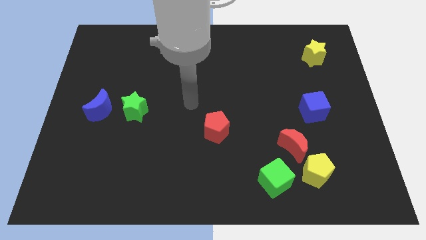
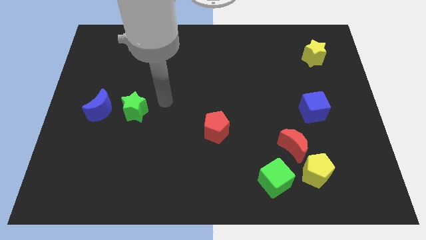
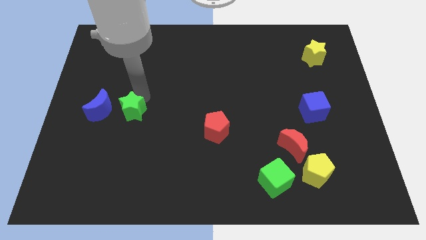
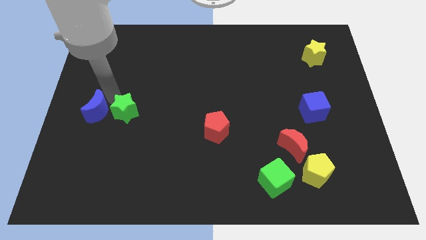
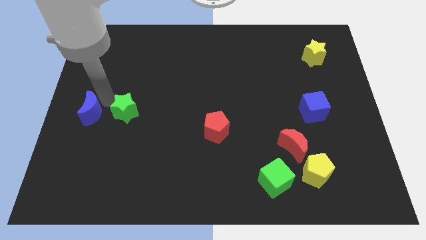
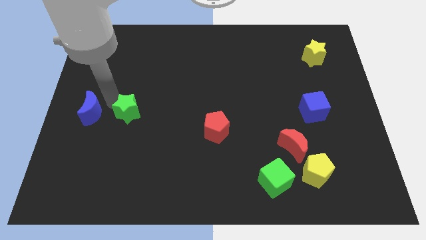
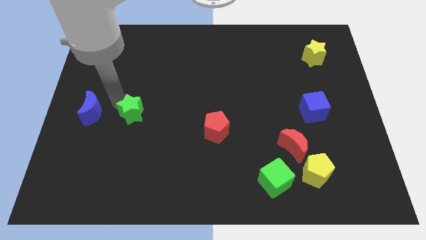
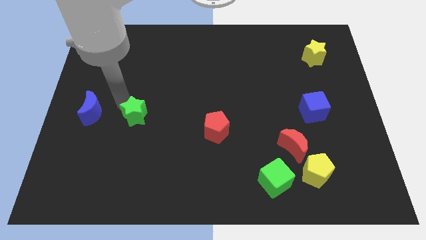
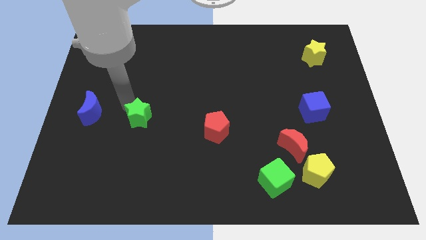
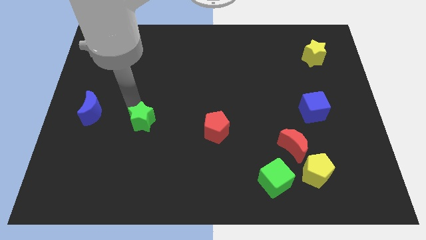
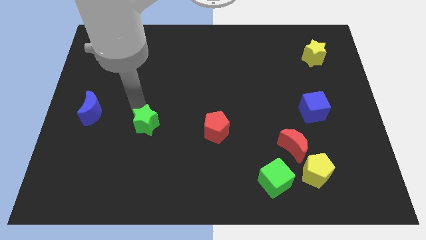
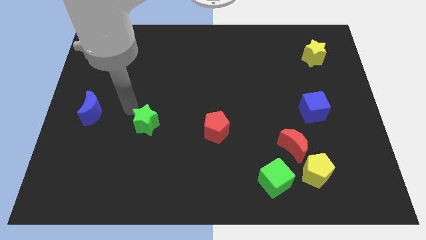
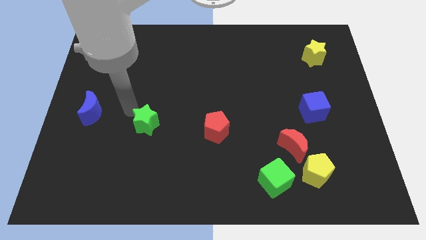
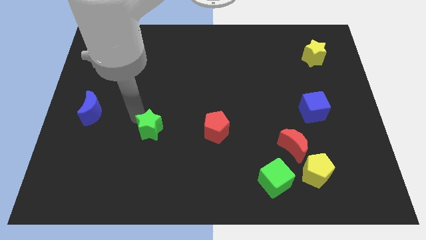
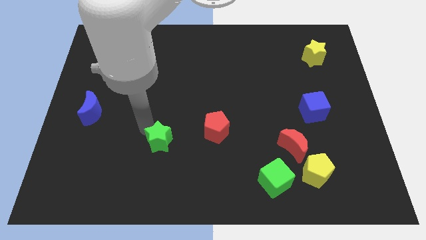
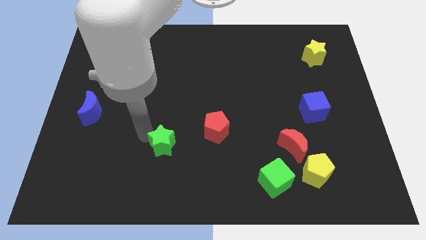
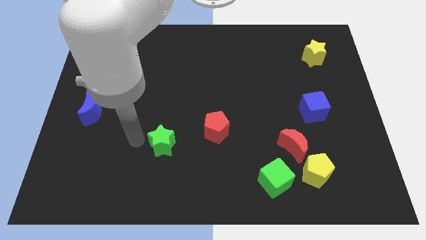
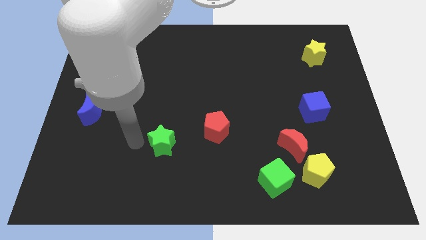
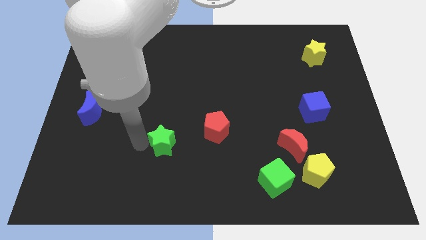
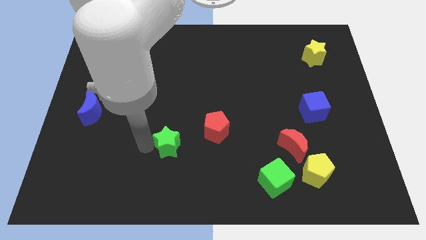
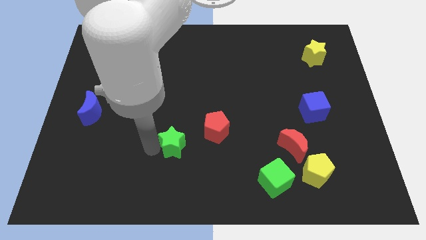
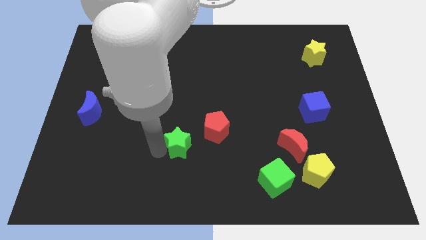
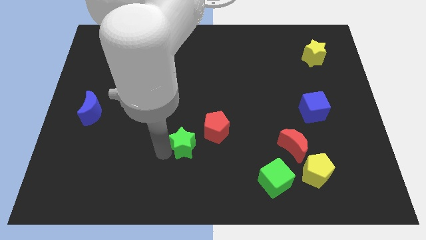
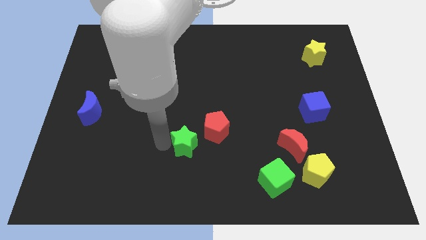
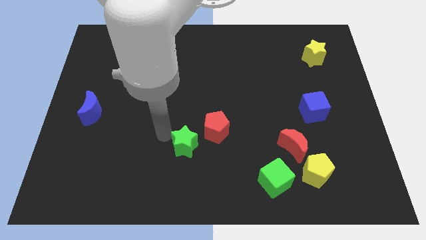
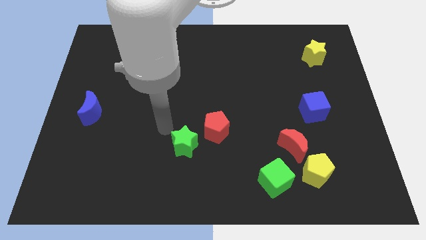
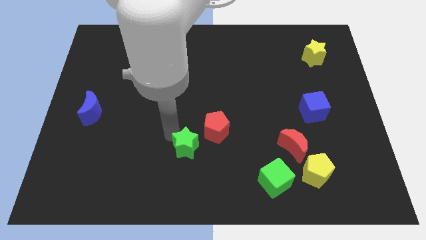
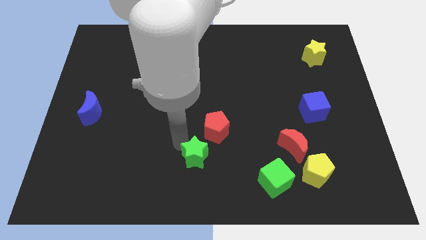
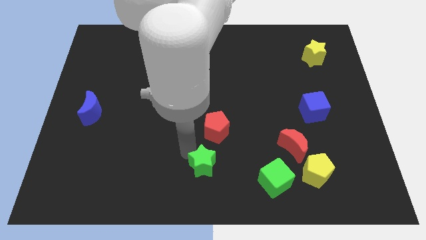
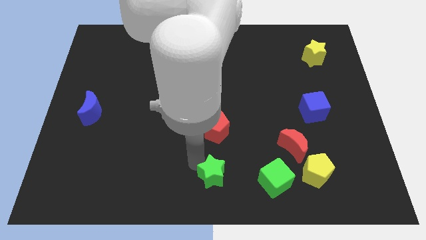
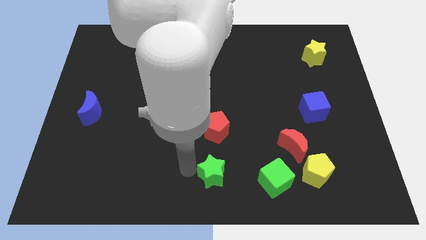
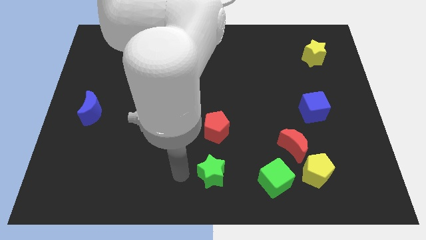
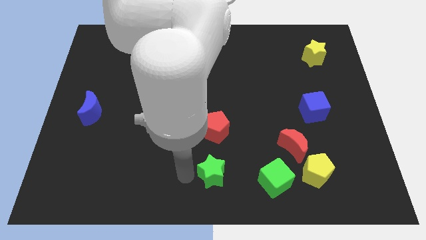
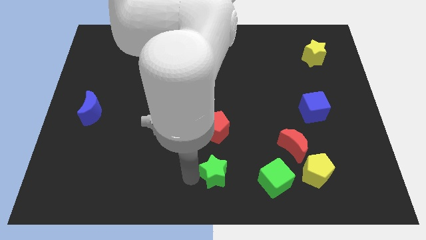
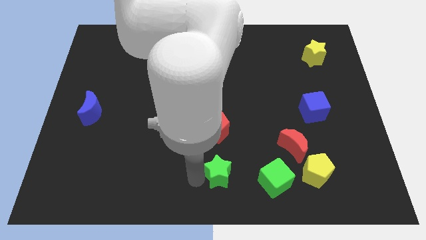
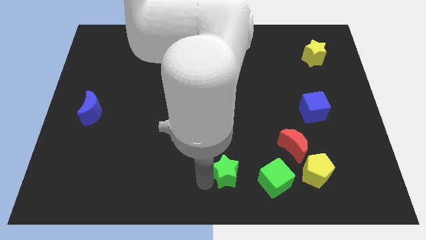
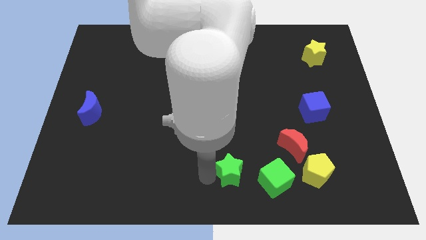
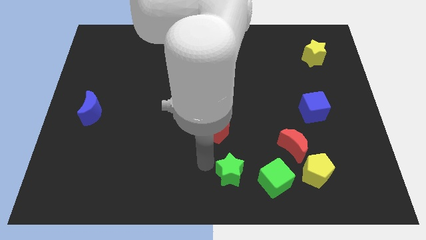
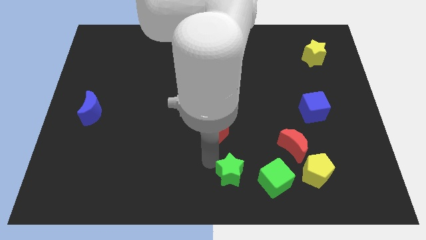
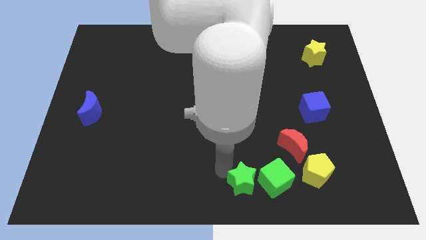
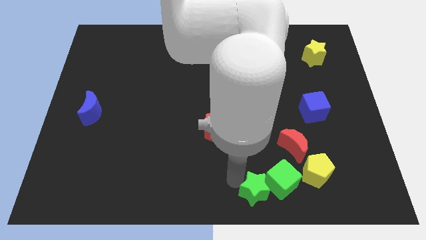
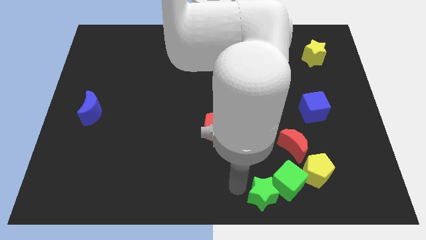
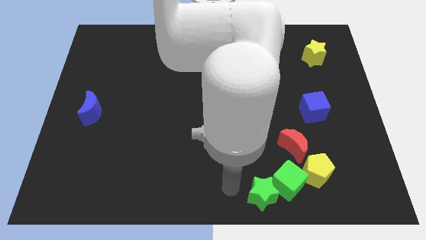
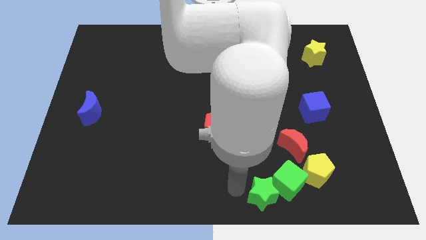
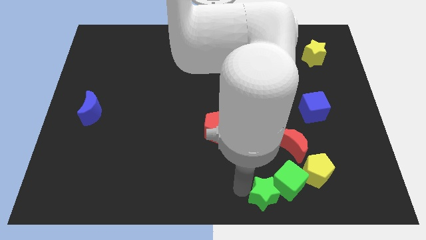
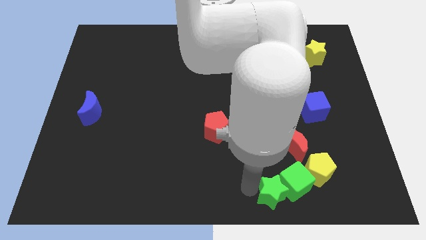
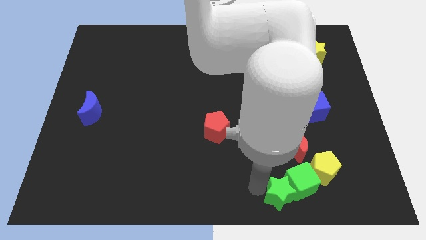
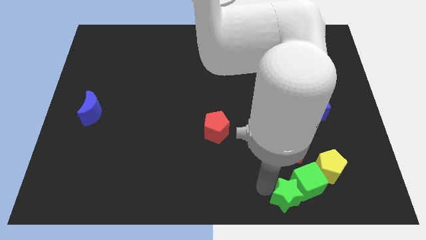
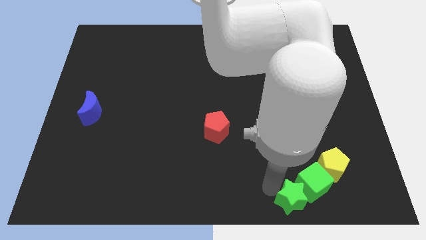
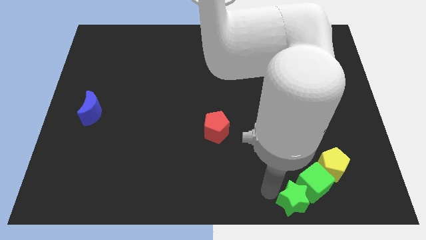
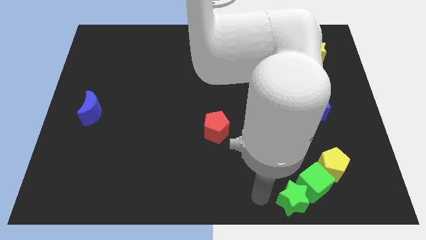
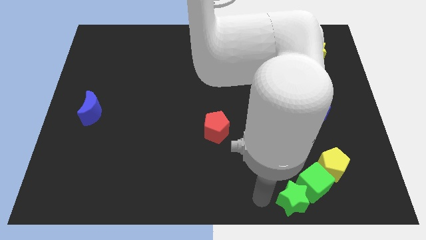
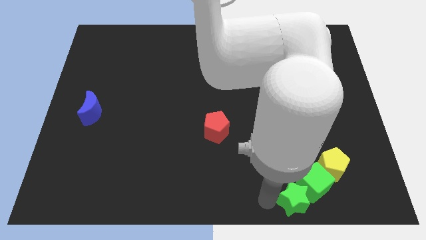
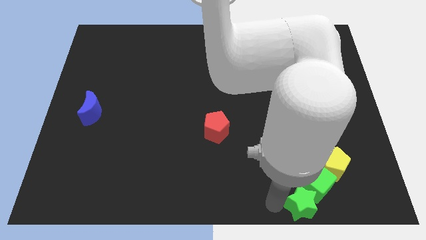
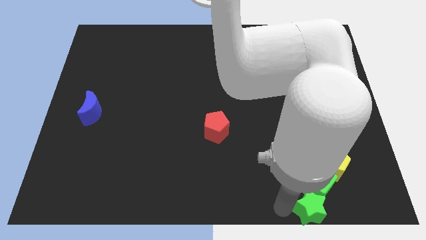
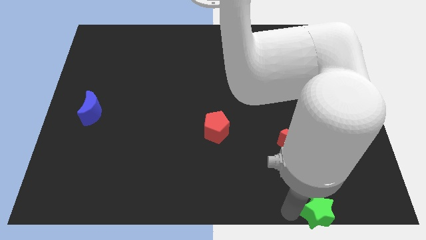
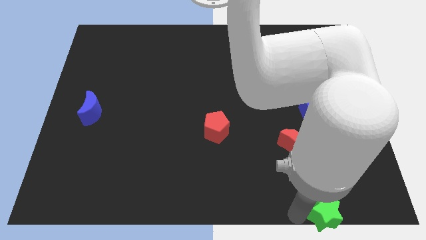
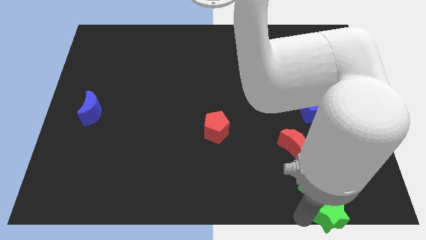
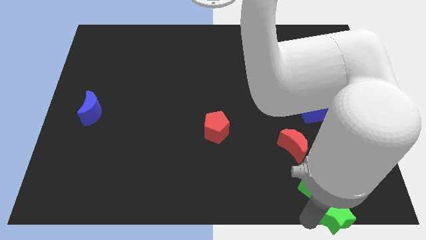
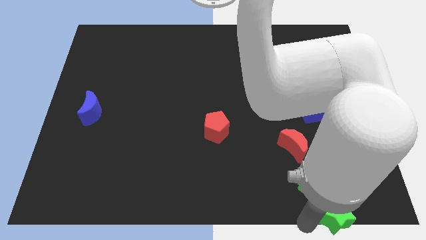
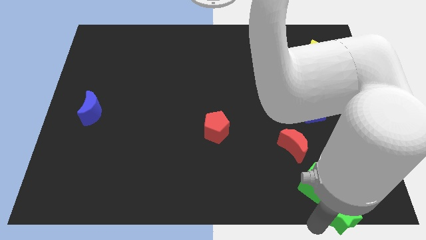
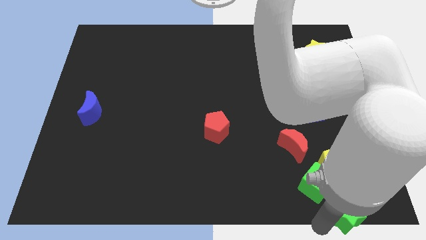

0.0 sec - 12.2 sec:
move the green star to the bottom right corner
